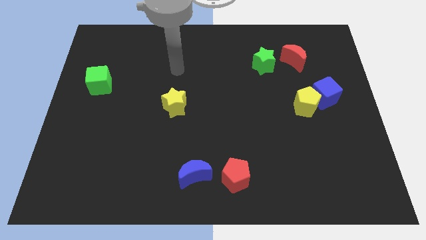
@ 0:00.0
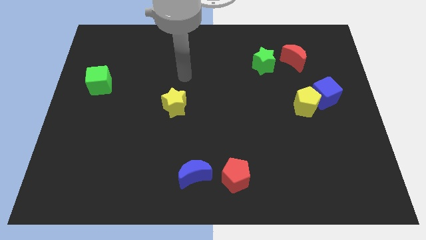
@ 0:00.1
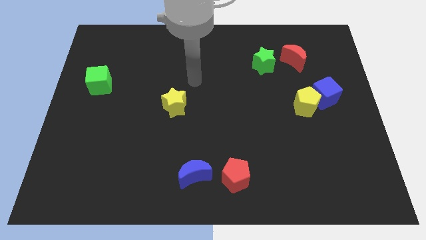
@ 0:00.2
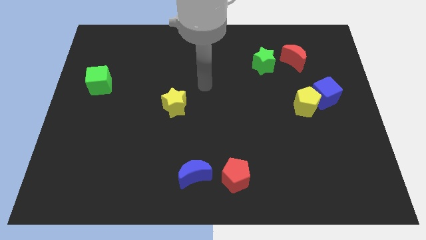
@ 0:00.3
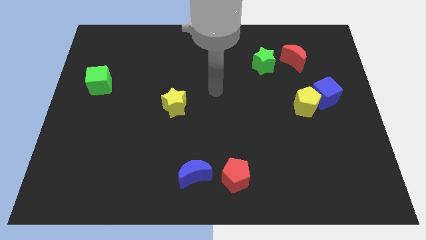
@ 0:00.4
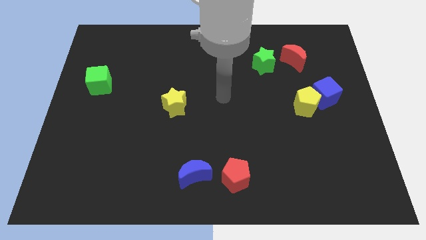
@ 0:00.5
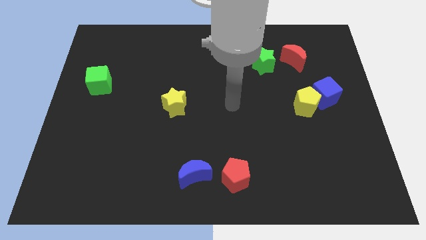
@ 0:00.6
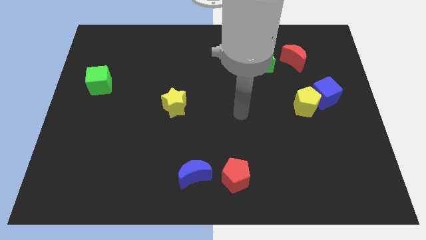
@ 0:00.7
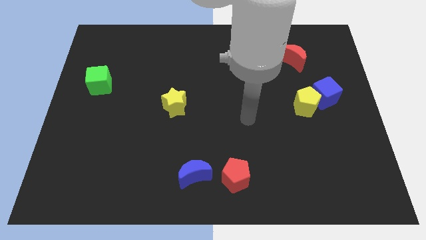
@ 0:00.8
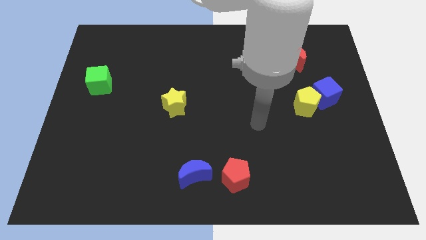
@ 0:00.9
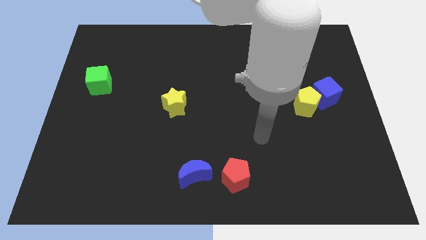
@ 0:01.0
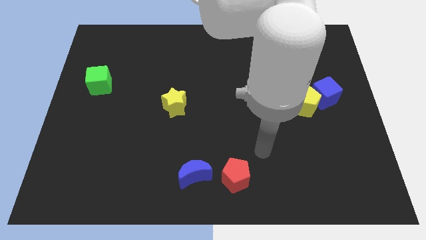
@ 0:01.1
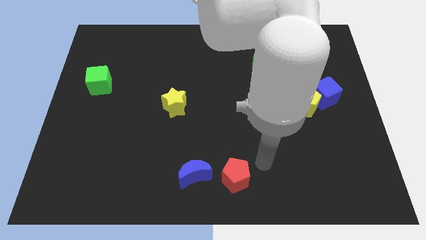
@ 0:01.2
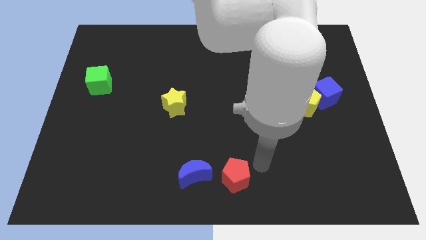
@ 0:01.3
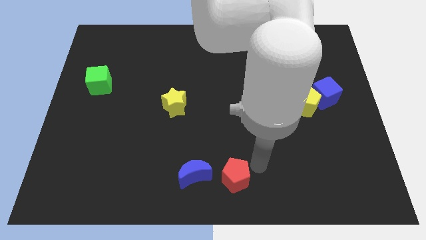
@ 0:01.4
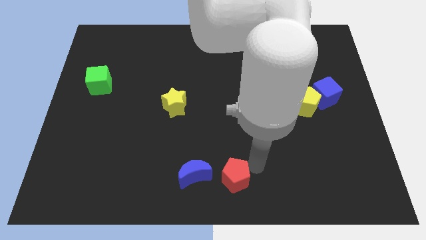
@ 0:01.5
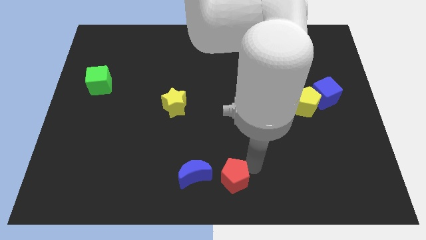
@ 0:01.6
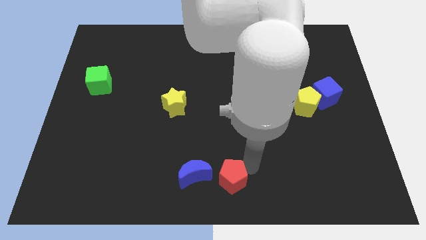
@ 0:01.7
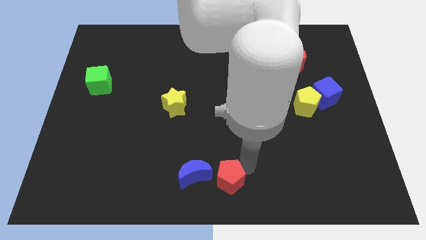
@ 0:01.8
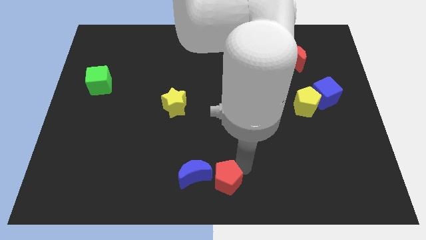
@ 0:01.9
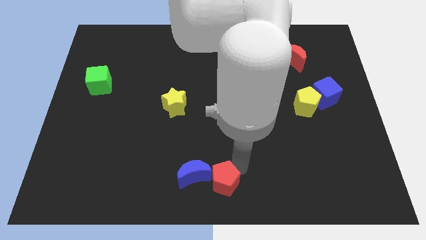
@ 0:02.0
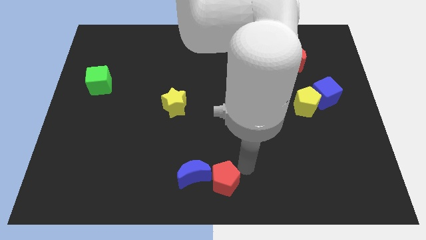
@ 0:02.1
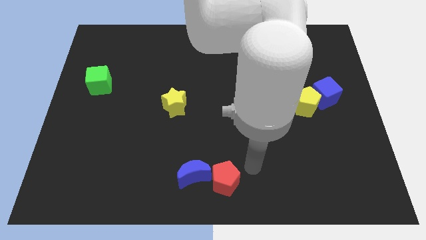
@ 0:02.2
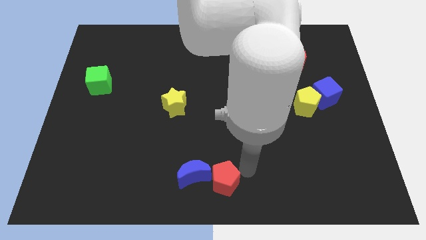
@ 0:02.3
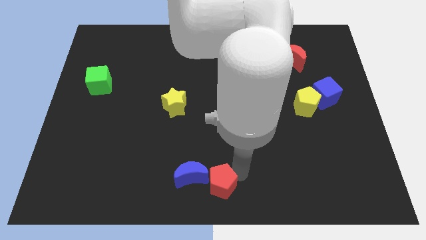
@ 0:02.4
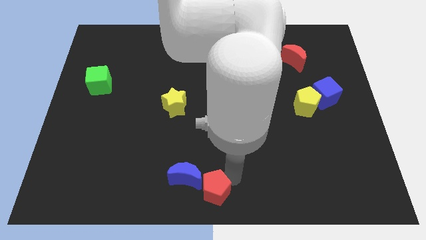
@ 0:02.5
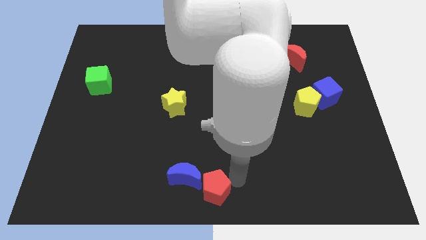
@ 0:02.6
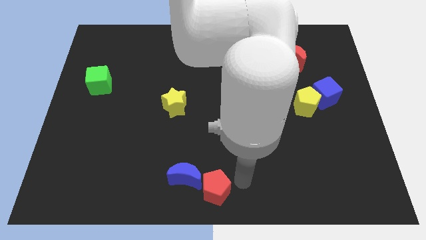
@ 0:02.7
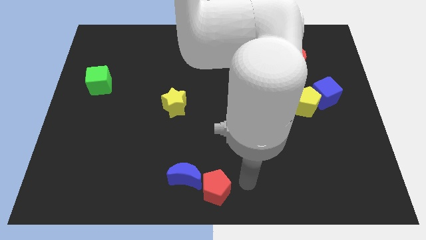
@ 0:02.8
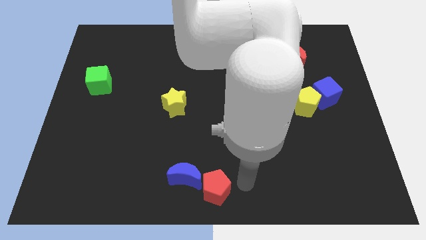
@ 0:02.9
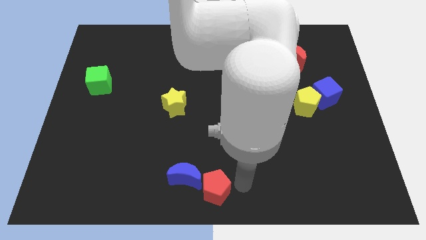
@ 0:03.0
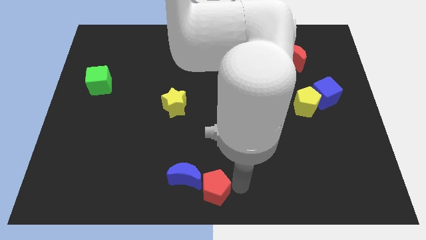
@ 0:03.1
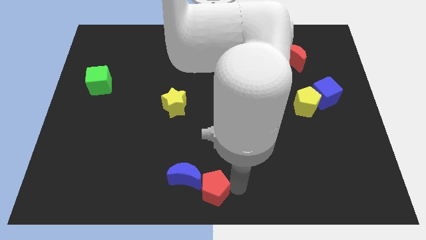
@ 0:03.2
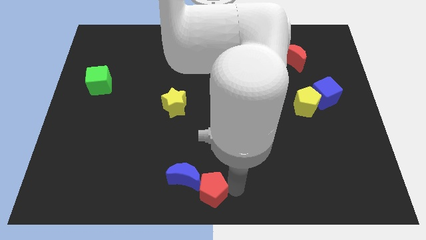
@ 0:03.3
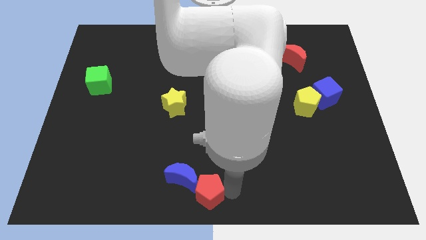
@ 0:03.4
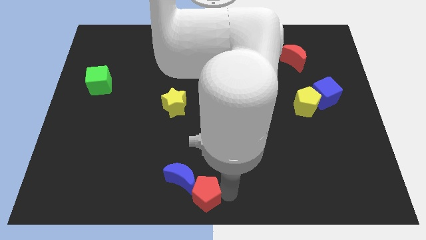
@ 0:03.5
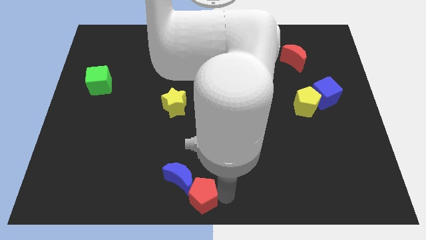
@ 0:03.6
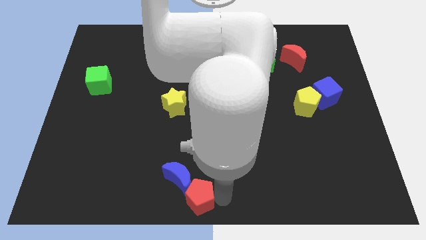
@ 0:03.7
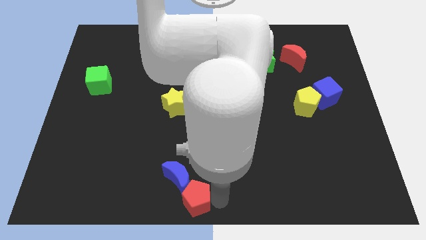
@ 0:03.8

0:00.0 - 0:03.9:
slide the red pentagon slightly left

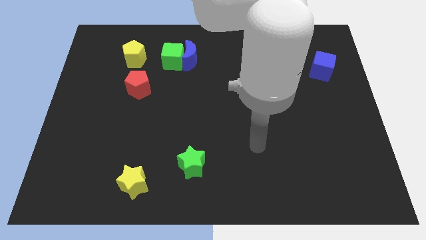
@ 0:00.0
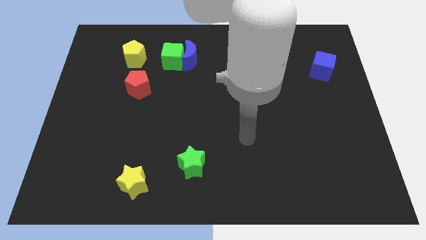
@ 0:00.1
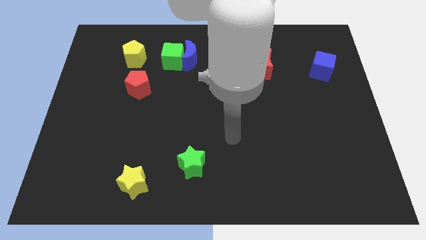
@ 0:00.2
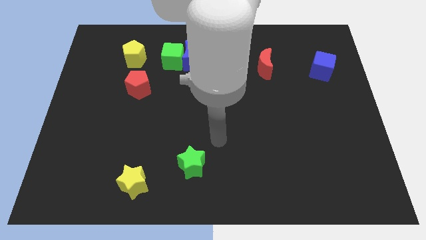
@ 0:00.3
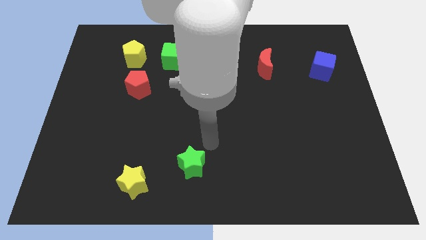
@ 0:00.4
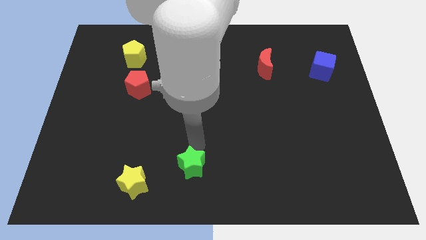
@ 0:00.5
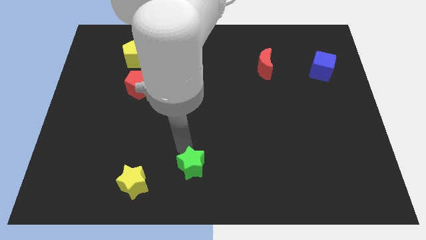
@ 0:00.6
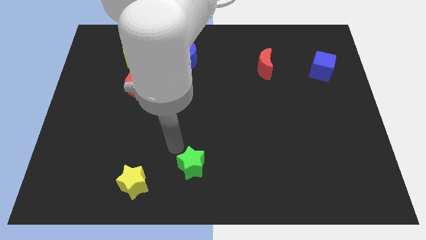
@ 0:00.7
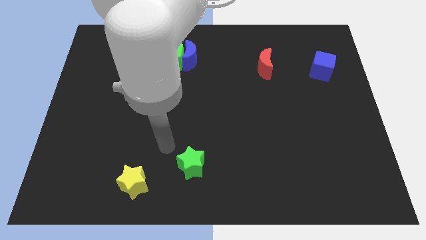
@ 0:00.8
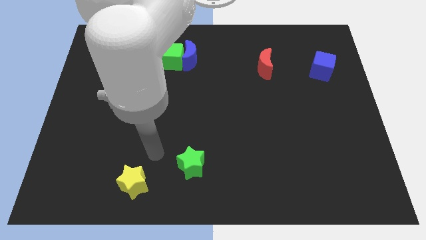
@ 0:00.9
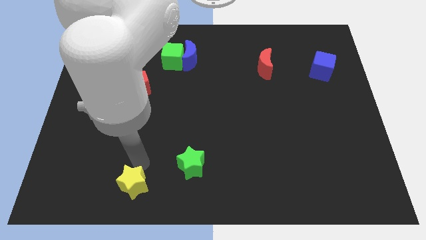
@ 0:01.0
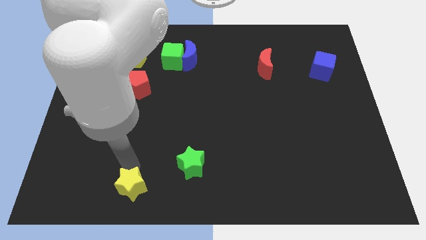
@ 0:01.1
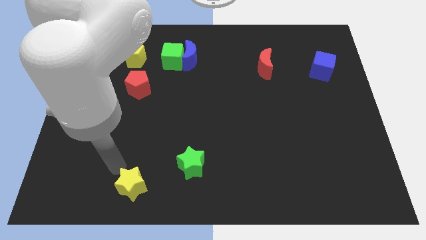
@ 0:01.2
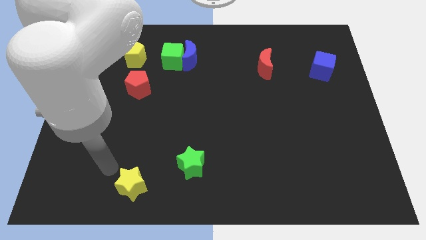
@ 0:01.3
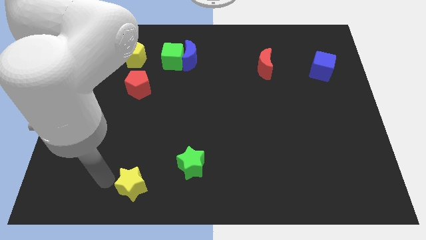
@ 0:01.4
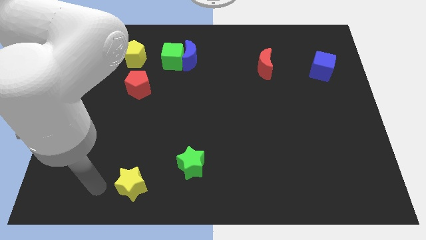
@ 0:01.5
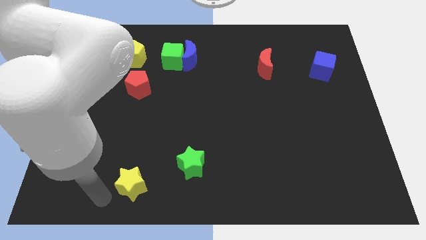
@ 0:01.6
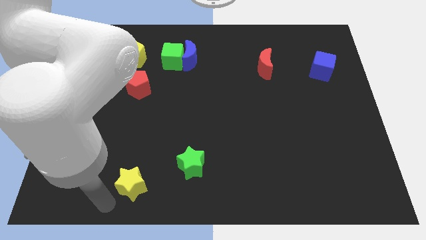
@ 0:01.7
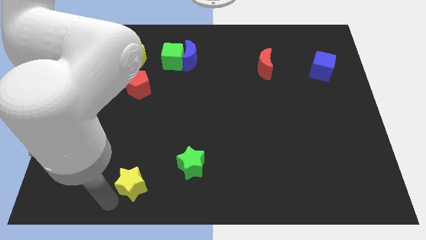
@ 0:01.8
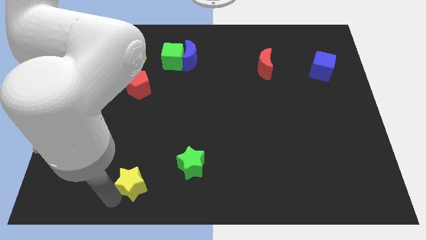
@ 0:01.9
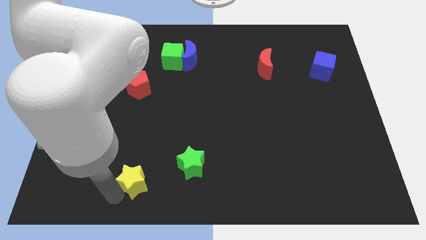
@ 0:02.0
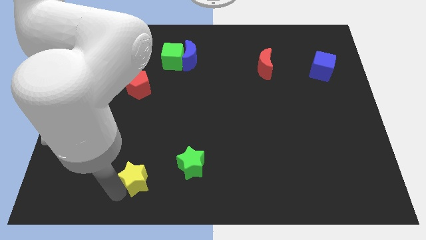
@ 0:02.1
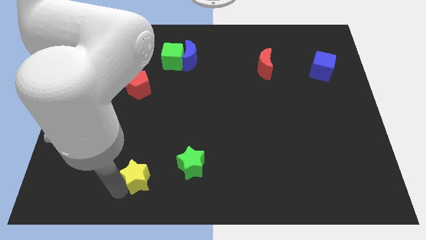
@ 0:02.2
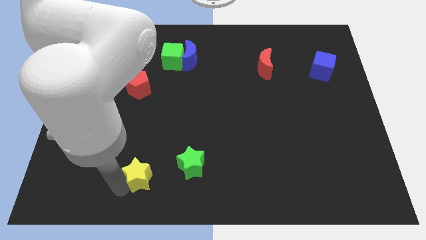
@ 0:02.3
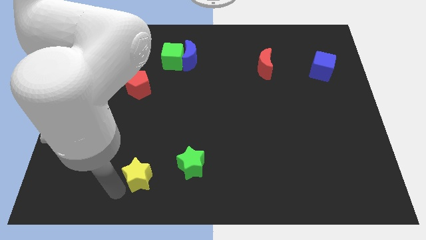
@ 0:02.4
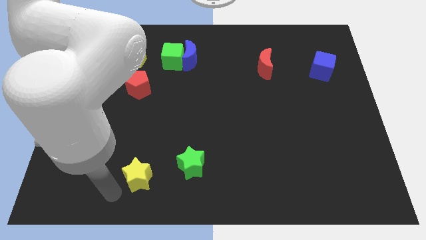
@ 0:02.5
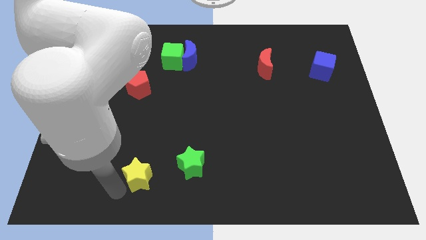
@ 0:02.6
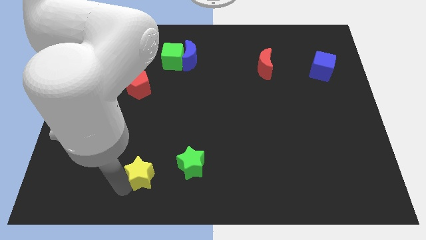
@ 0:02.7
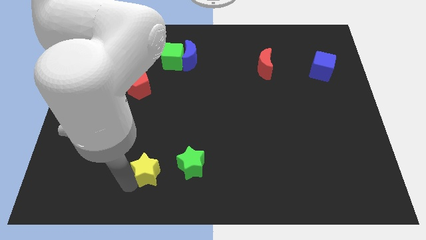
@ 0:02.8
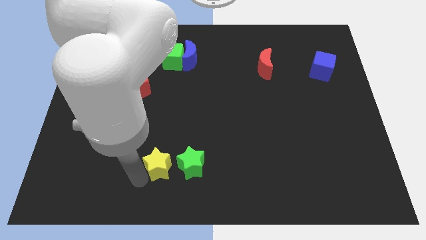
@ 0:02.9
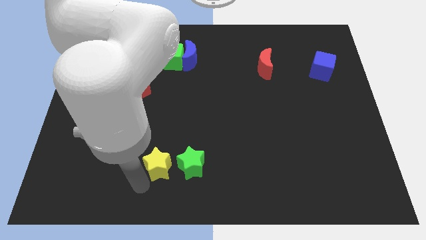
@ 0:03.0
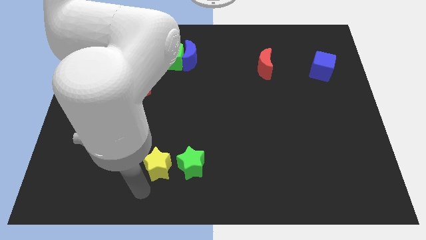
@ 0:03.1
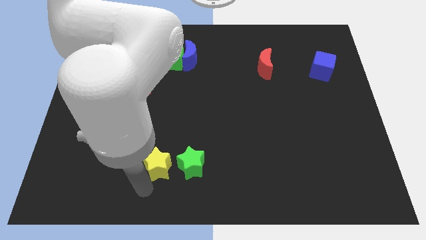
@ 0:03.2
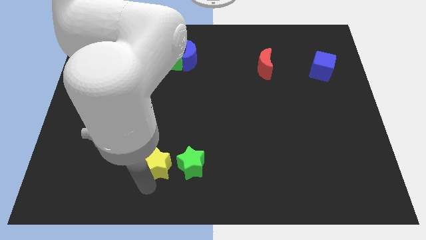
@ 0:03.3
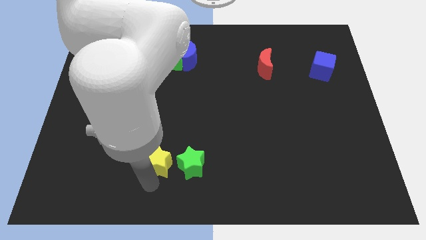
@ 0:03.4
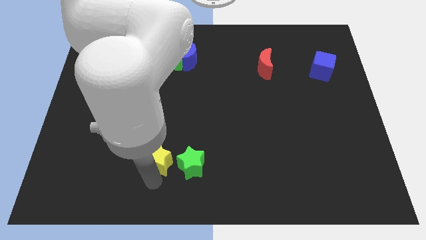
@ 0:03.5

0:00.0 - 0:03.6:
slide the yellow star a bit up and then right

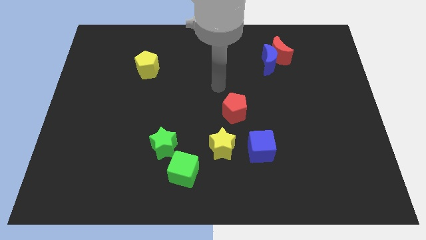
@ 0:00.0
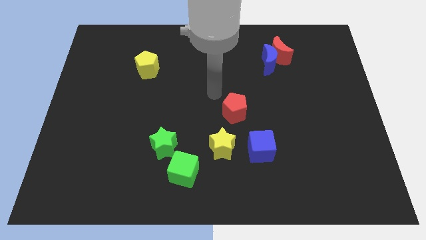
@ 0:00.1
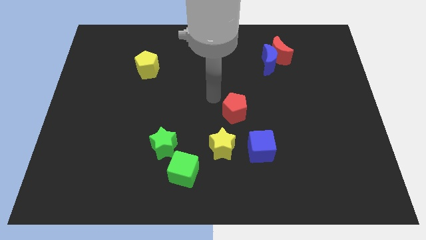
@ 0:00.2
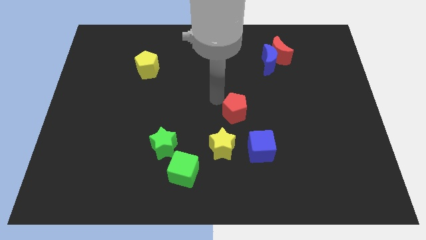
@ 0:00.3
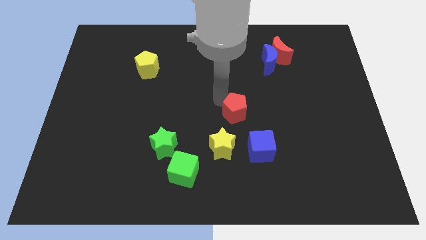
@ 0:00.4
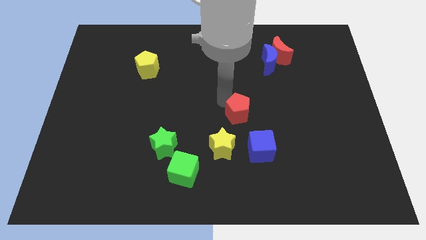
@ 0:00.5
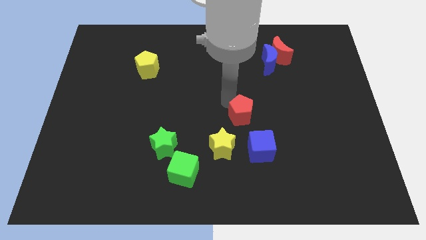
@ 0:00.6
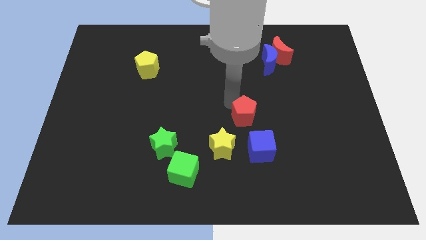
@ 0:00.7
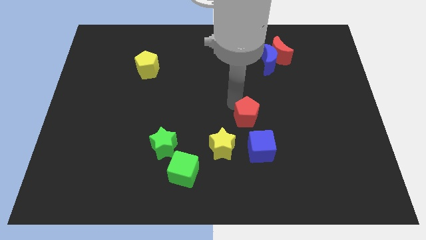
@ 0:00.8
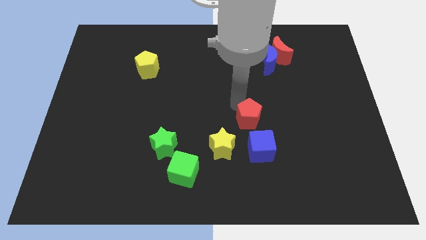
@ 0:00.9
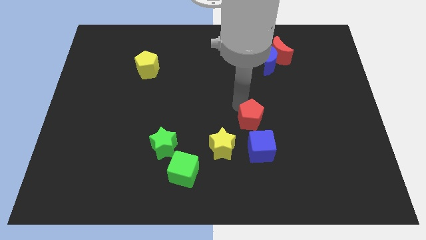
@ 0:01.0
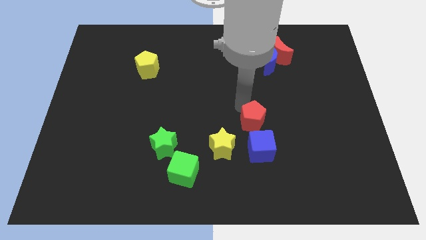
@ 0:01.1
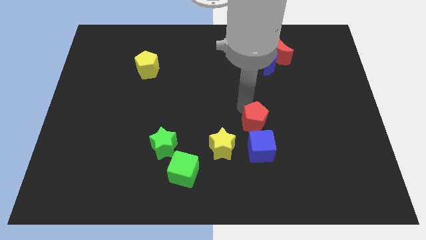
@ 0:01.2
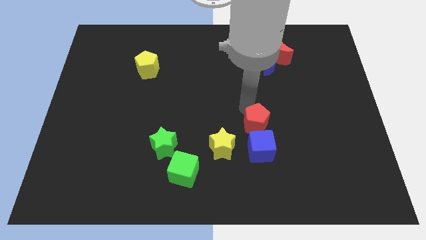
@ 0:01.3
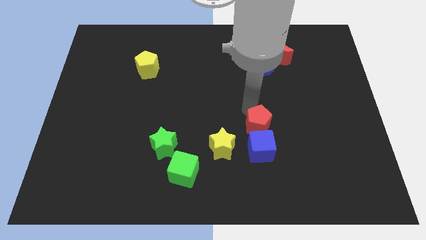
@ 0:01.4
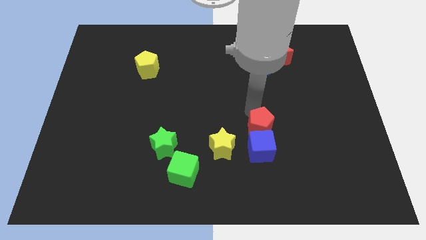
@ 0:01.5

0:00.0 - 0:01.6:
slide the red pentagon diagonally downwards and to the right a little
